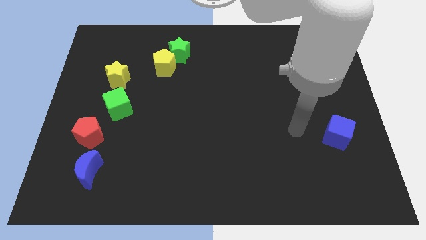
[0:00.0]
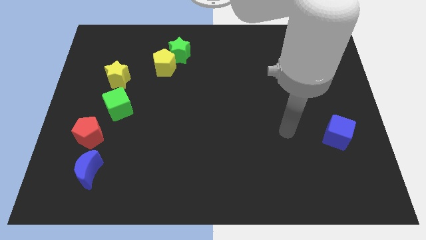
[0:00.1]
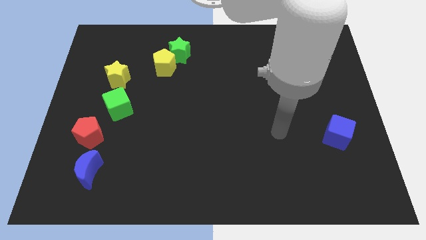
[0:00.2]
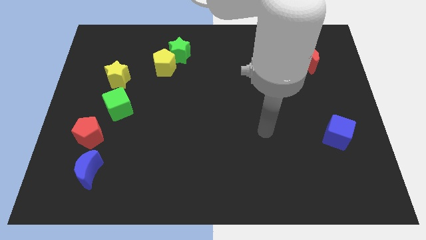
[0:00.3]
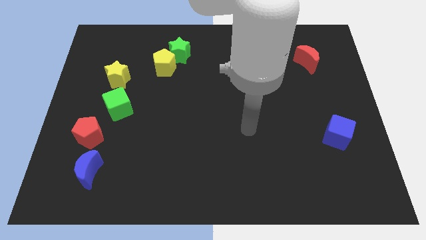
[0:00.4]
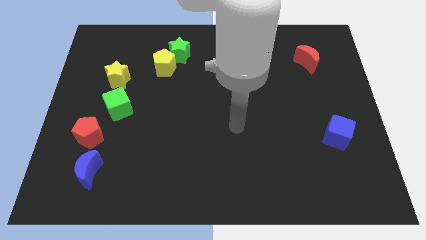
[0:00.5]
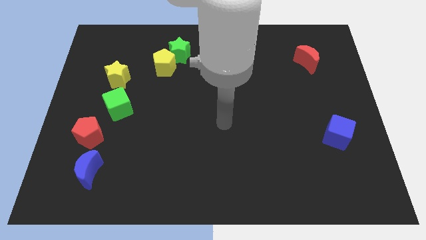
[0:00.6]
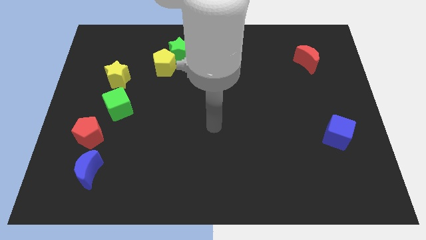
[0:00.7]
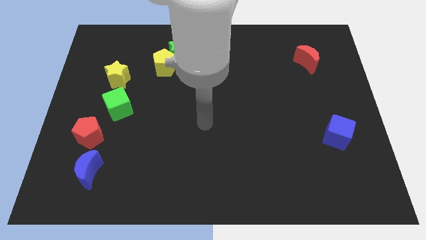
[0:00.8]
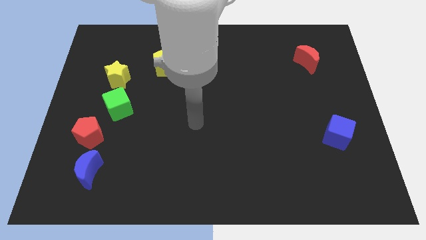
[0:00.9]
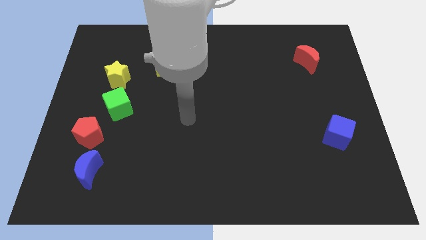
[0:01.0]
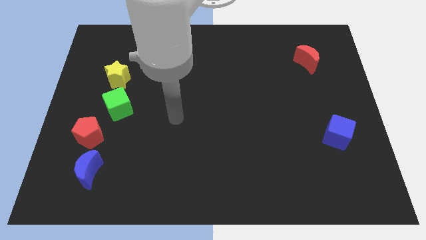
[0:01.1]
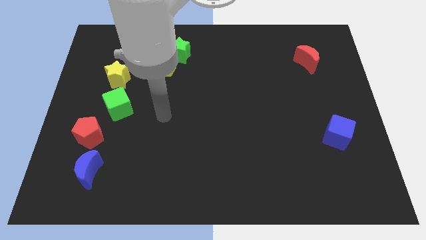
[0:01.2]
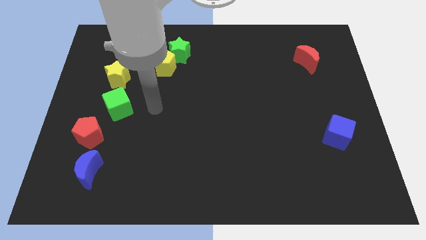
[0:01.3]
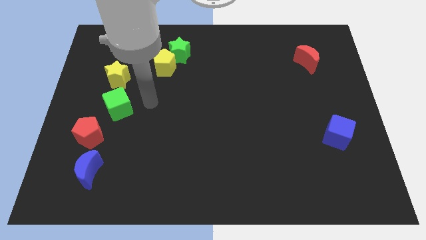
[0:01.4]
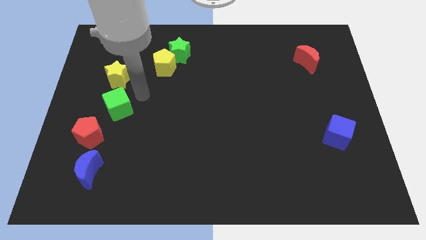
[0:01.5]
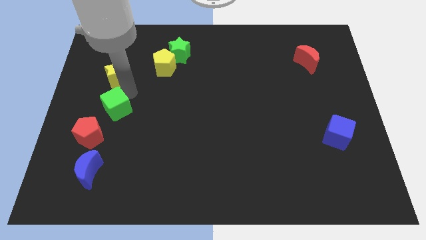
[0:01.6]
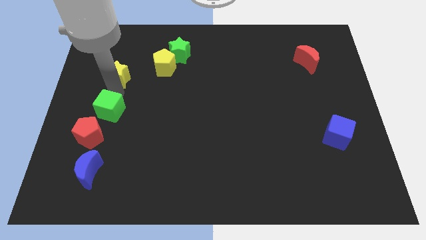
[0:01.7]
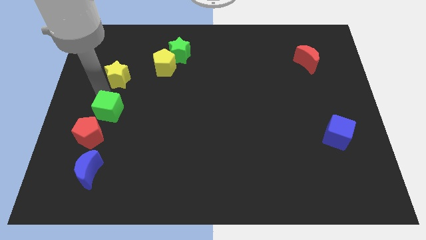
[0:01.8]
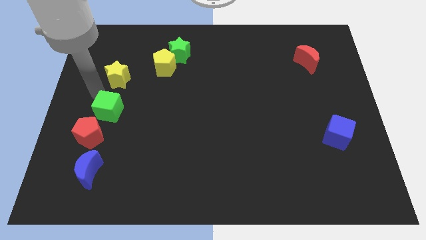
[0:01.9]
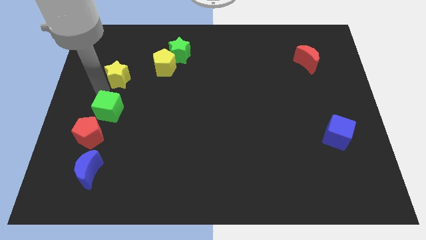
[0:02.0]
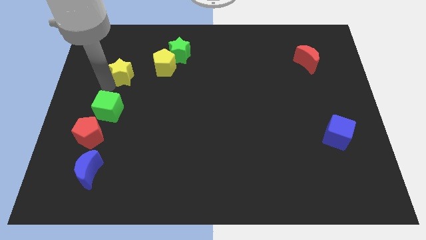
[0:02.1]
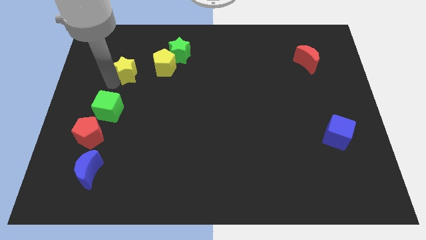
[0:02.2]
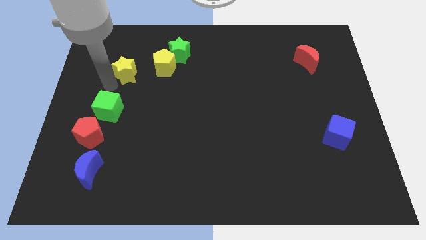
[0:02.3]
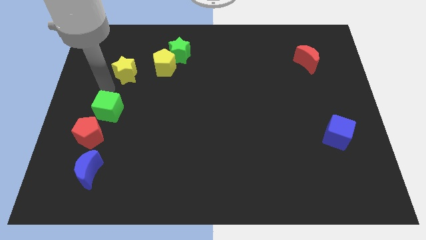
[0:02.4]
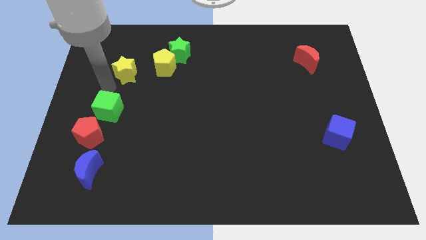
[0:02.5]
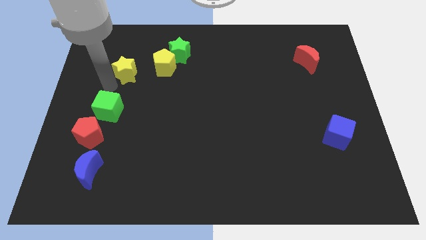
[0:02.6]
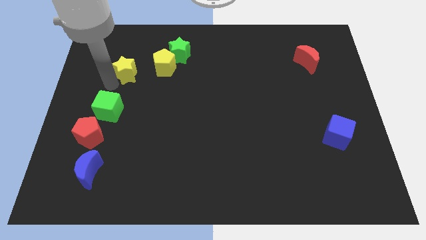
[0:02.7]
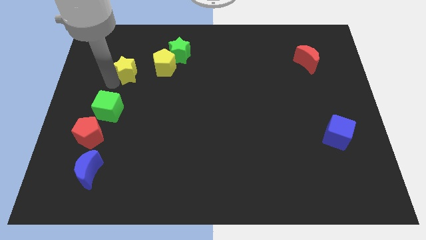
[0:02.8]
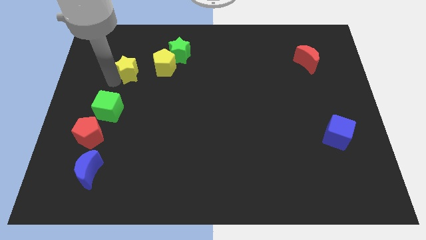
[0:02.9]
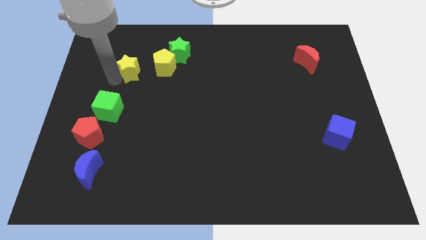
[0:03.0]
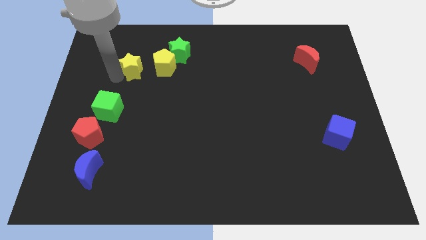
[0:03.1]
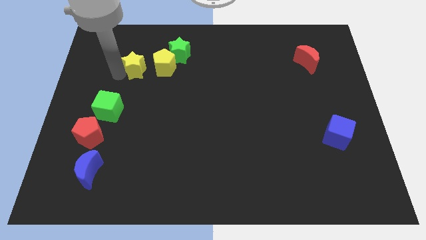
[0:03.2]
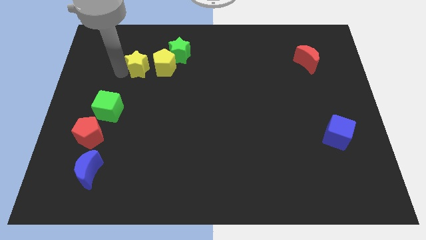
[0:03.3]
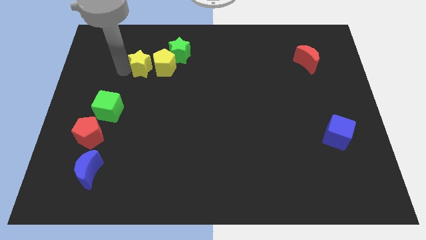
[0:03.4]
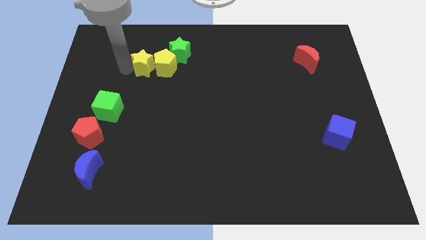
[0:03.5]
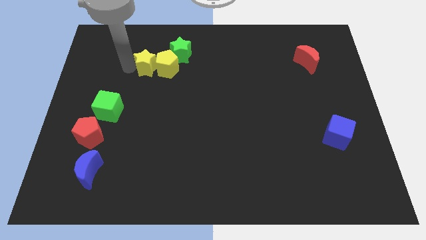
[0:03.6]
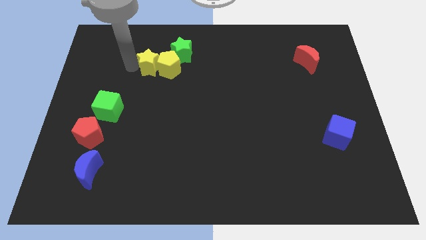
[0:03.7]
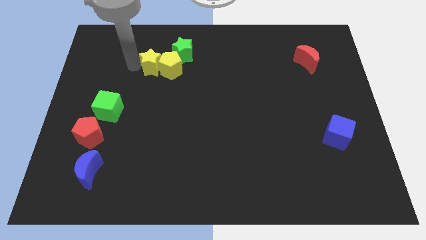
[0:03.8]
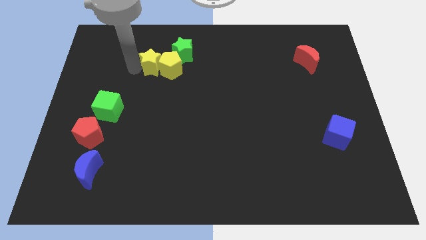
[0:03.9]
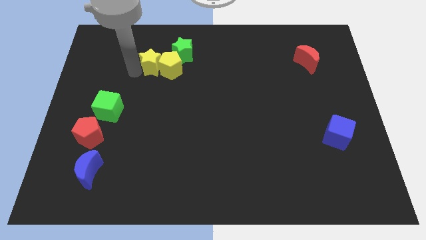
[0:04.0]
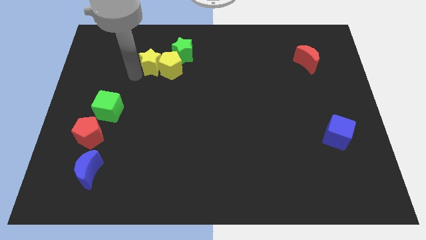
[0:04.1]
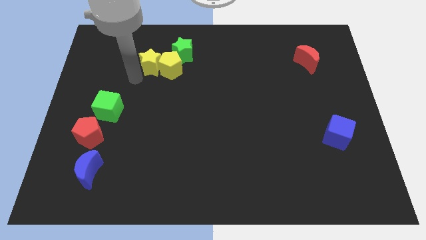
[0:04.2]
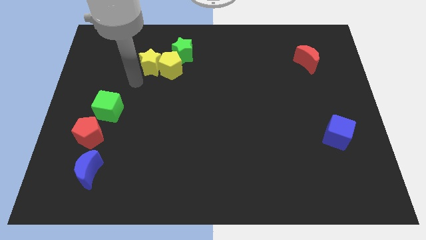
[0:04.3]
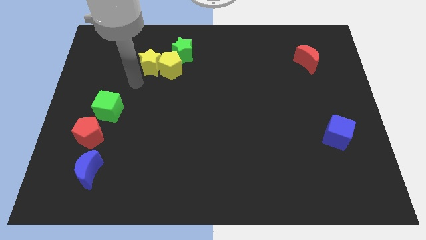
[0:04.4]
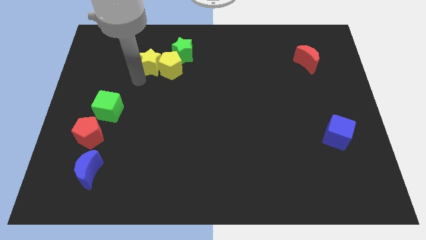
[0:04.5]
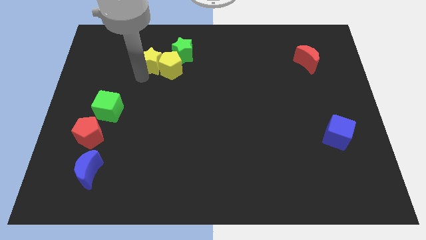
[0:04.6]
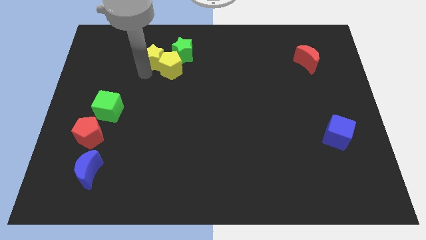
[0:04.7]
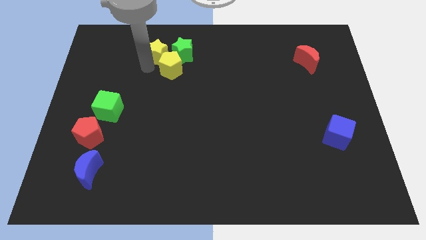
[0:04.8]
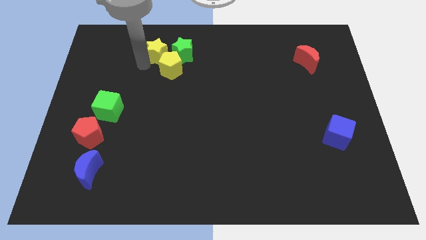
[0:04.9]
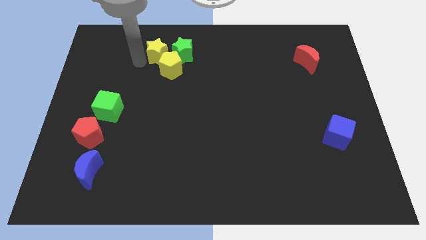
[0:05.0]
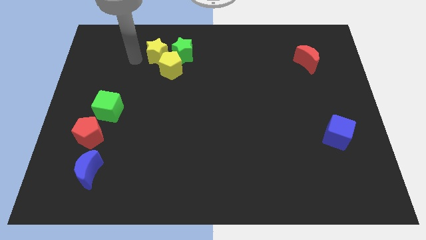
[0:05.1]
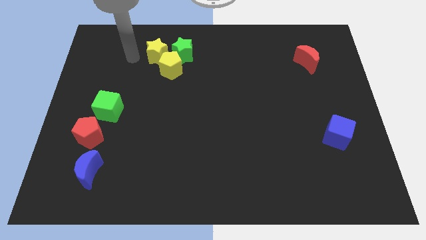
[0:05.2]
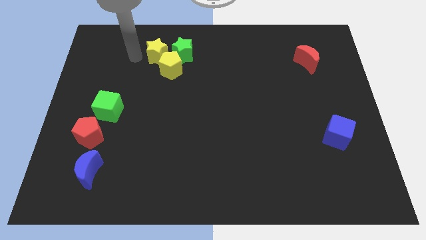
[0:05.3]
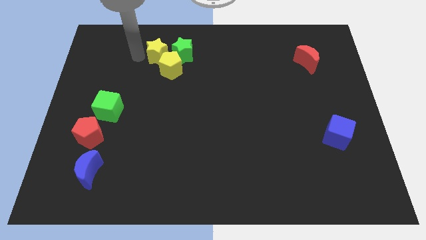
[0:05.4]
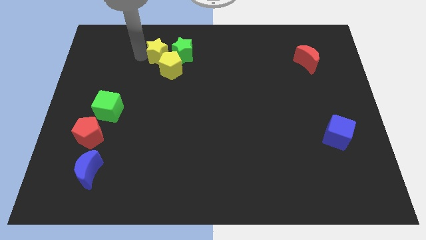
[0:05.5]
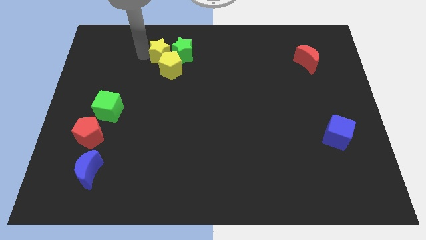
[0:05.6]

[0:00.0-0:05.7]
push the yellow star next to the green star
